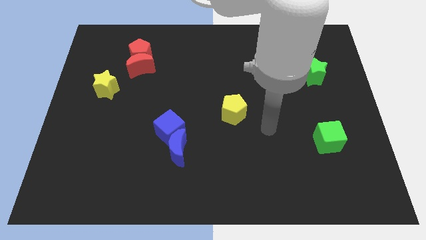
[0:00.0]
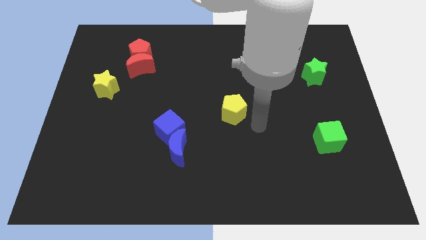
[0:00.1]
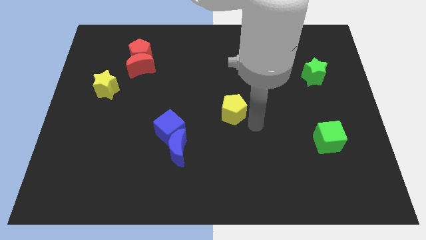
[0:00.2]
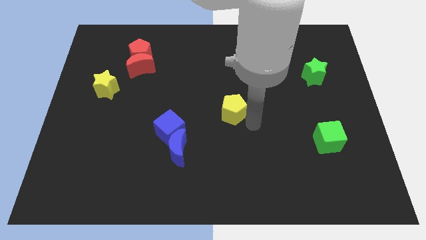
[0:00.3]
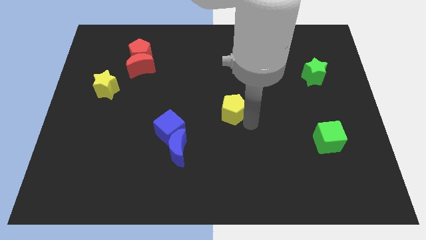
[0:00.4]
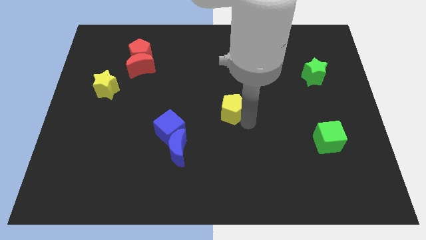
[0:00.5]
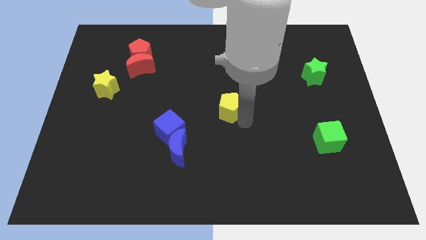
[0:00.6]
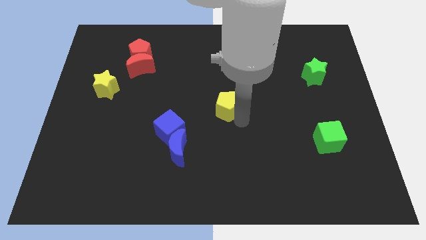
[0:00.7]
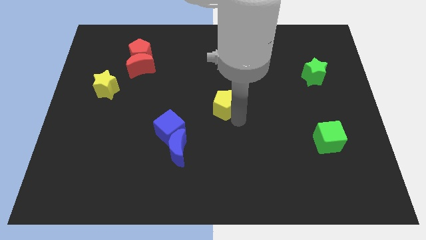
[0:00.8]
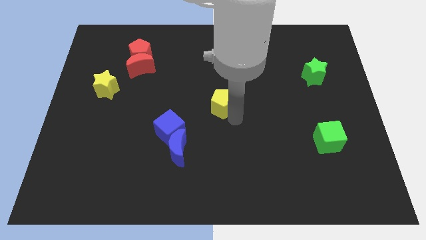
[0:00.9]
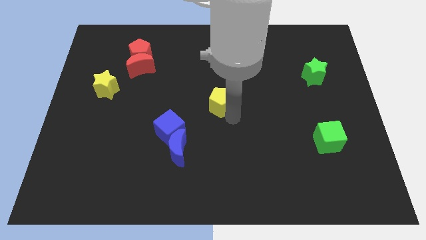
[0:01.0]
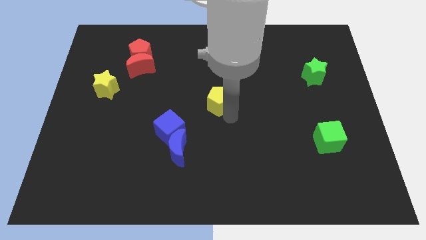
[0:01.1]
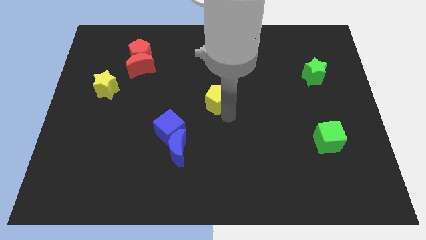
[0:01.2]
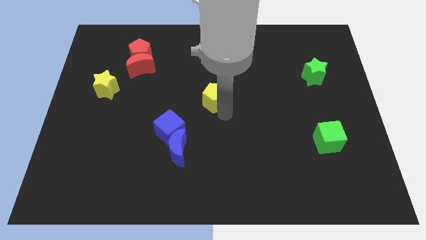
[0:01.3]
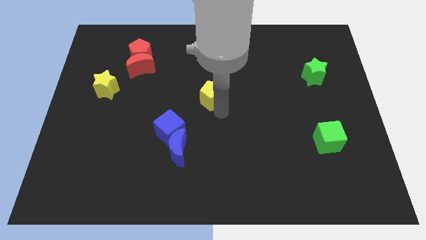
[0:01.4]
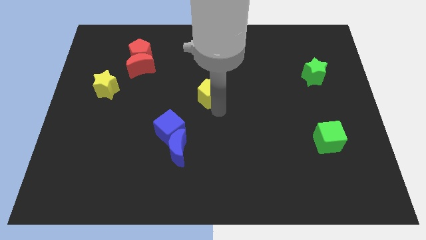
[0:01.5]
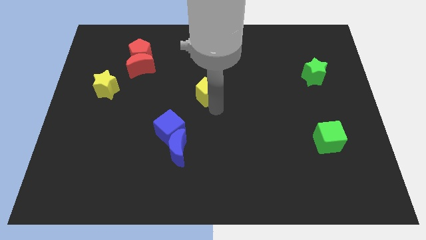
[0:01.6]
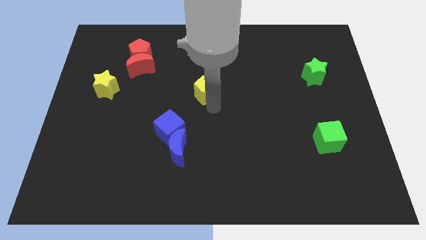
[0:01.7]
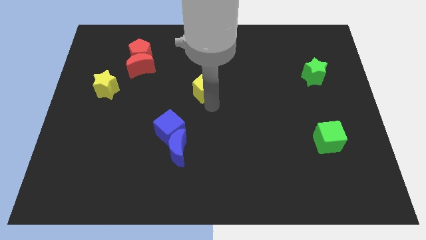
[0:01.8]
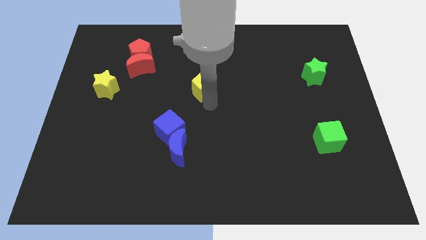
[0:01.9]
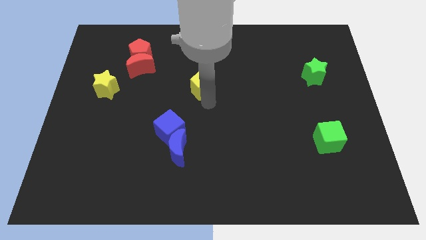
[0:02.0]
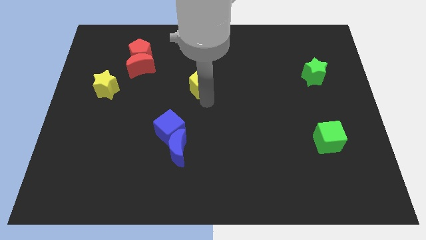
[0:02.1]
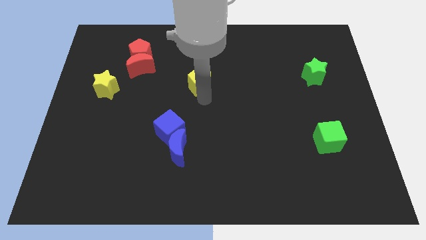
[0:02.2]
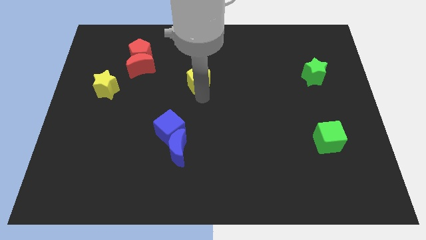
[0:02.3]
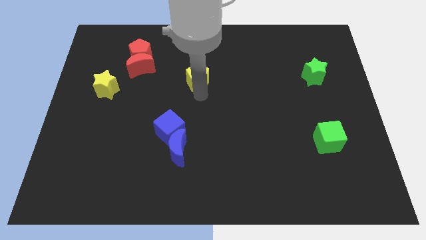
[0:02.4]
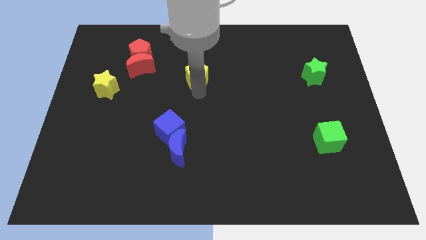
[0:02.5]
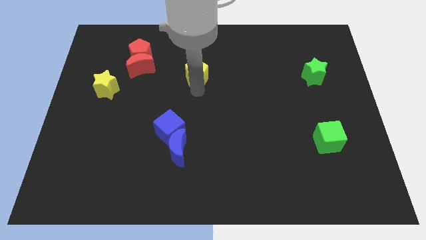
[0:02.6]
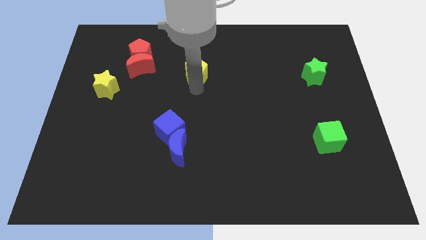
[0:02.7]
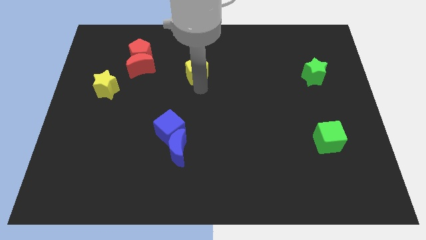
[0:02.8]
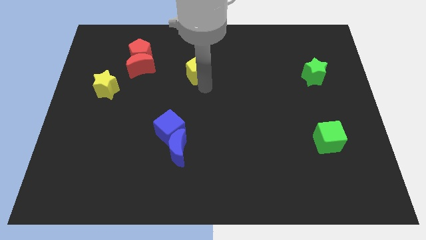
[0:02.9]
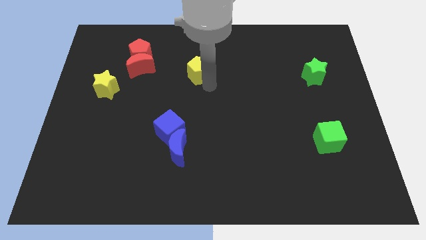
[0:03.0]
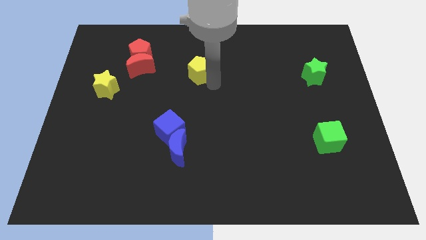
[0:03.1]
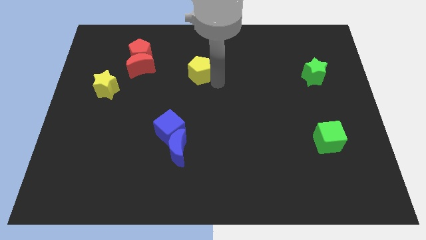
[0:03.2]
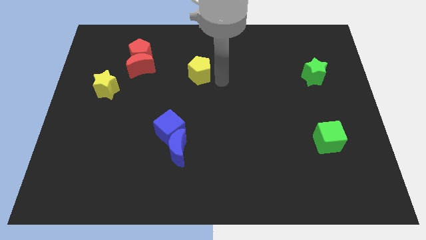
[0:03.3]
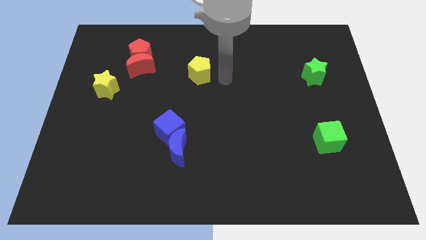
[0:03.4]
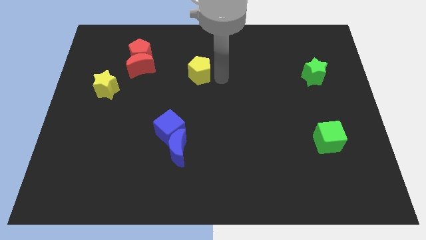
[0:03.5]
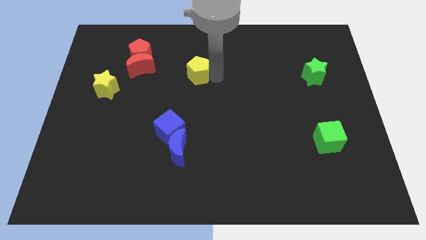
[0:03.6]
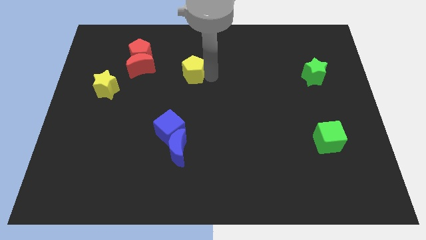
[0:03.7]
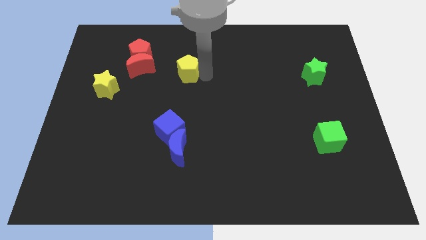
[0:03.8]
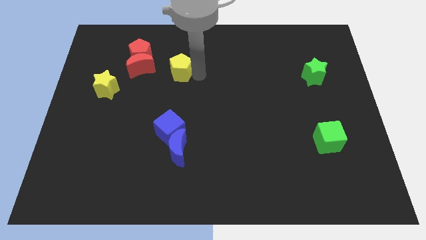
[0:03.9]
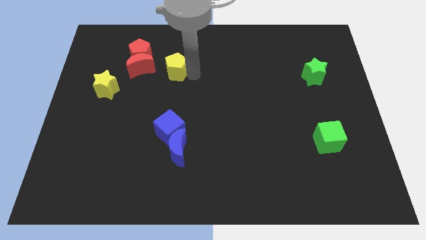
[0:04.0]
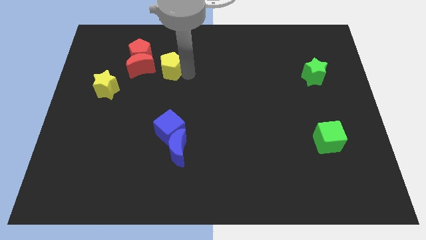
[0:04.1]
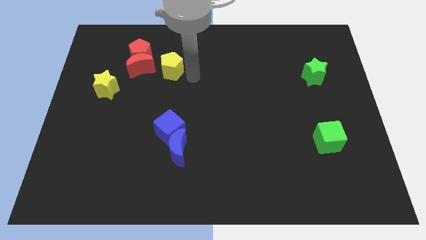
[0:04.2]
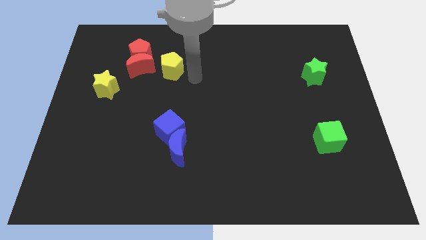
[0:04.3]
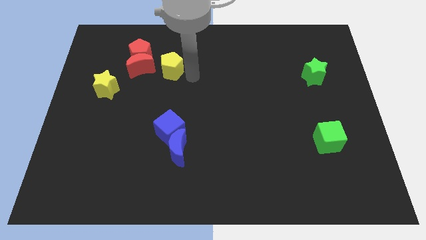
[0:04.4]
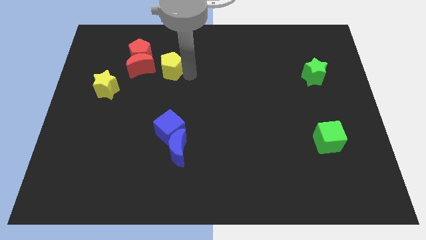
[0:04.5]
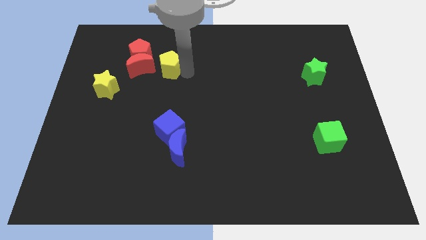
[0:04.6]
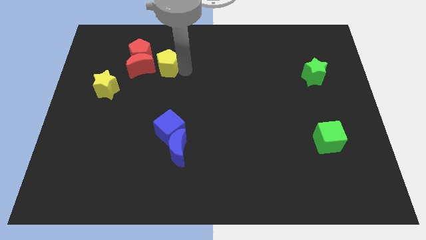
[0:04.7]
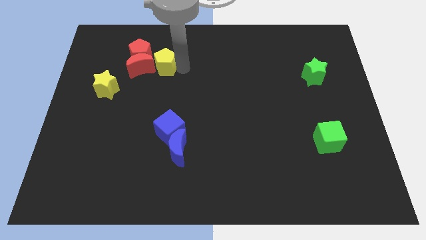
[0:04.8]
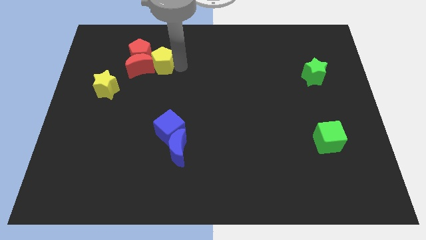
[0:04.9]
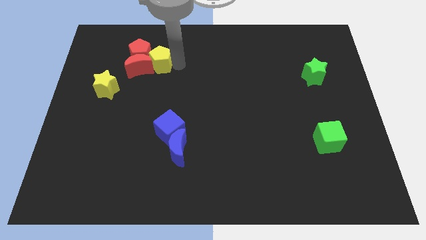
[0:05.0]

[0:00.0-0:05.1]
put the yellow pentagon close to the red pentagon

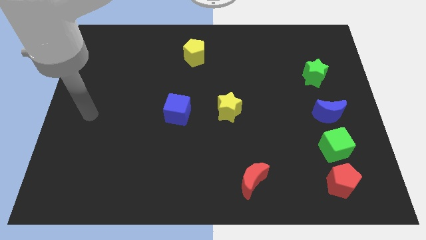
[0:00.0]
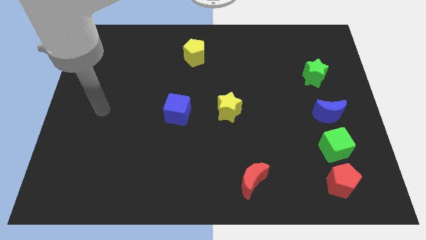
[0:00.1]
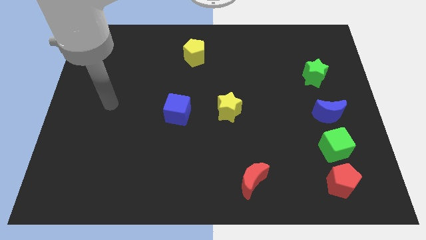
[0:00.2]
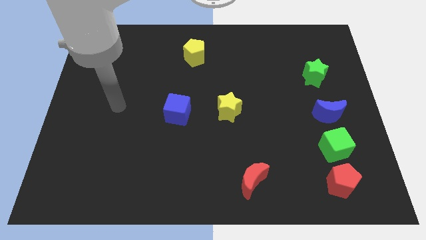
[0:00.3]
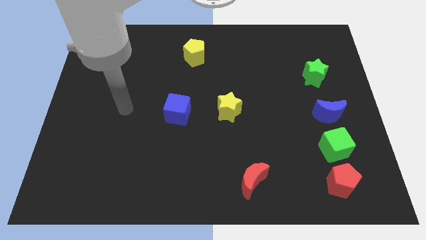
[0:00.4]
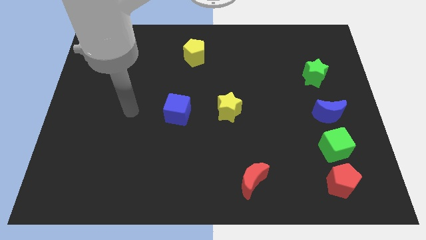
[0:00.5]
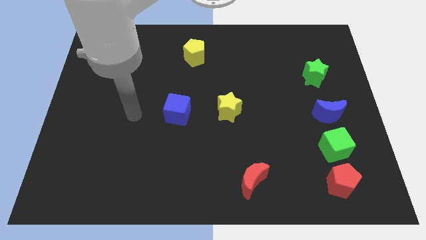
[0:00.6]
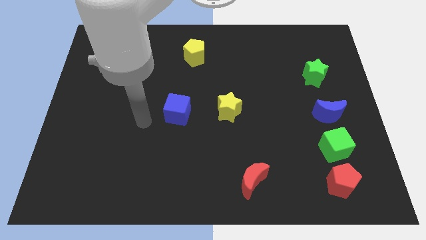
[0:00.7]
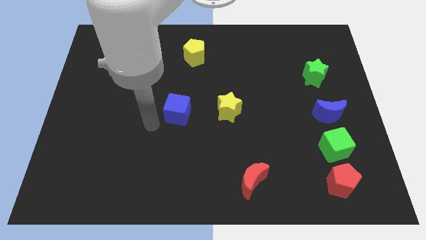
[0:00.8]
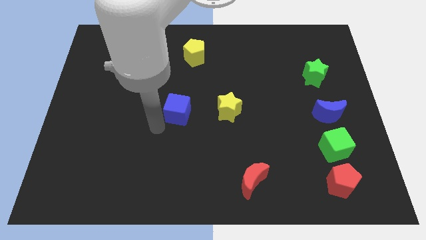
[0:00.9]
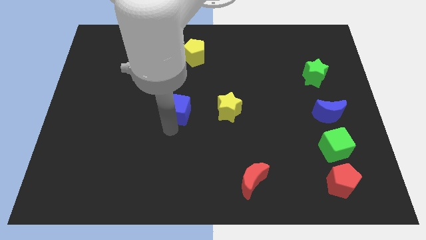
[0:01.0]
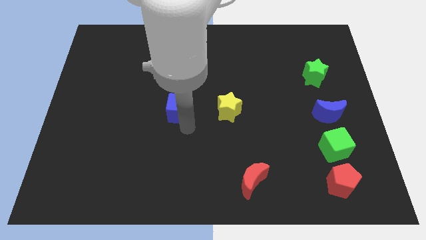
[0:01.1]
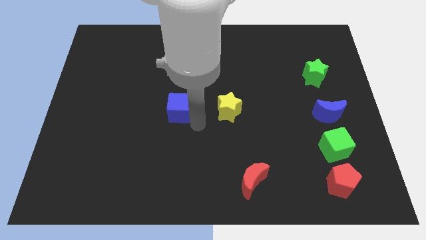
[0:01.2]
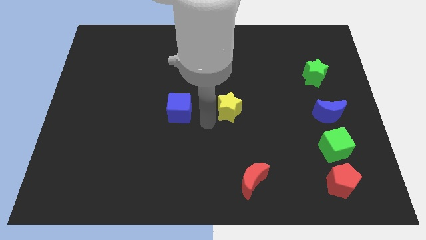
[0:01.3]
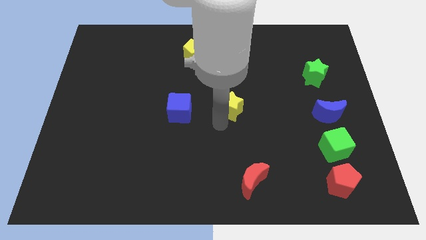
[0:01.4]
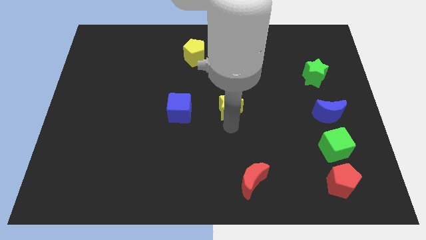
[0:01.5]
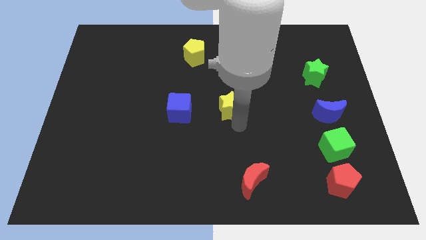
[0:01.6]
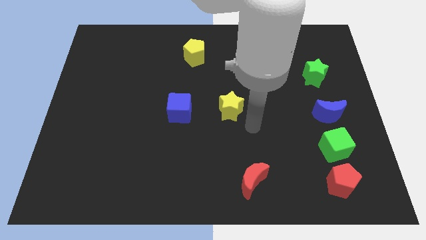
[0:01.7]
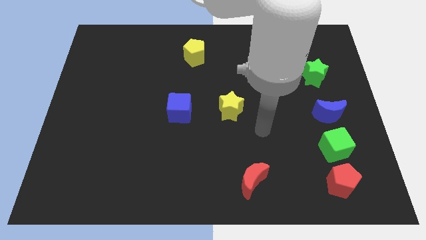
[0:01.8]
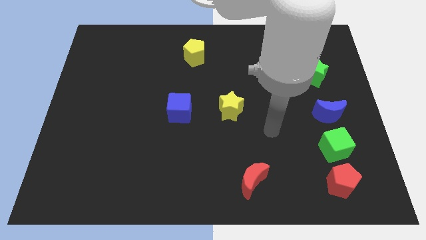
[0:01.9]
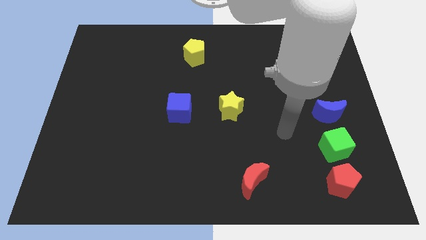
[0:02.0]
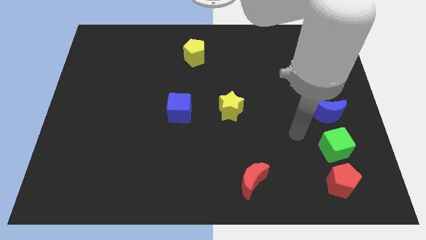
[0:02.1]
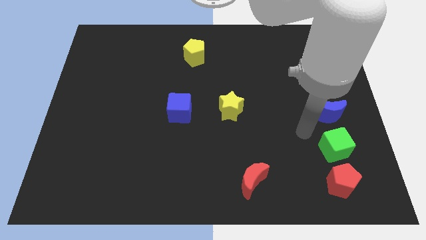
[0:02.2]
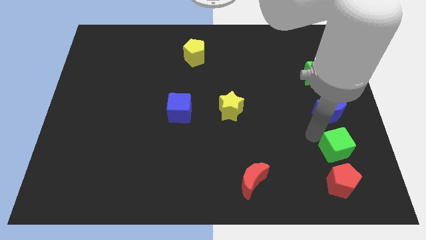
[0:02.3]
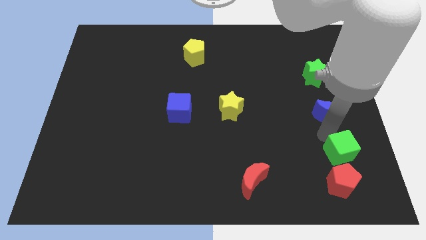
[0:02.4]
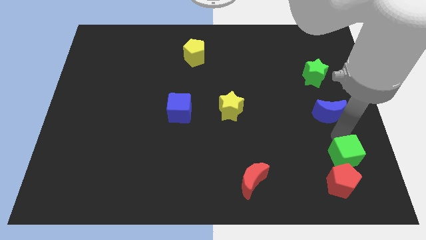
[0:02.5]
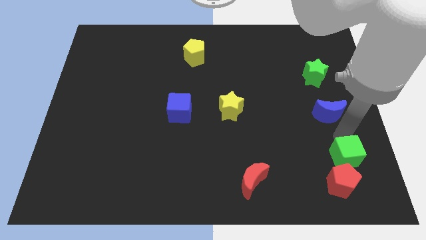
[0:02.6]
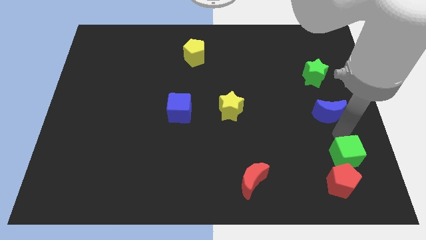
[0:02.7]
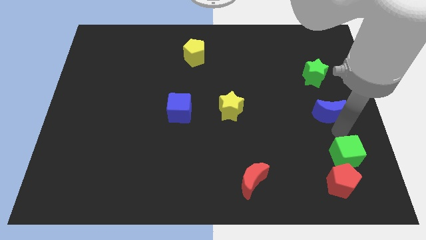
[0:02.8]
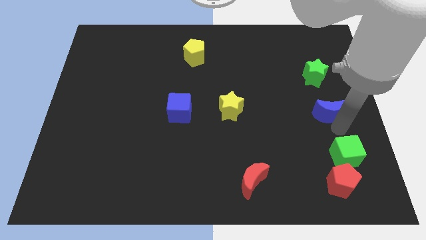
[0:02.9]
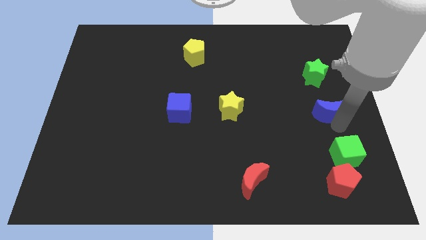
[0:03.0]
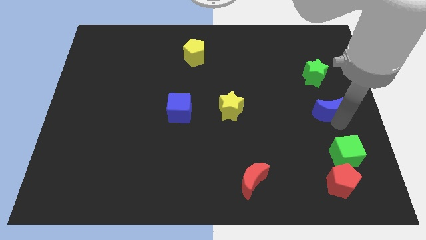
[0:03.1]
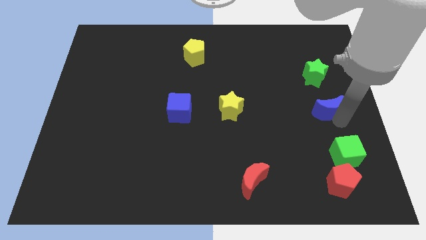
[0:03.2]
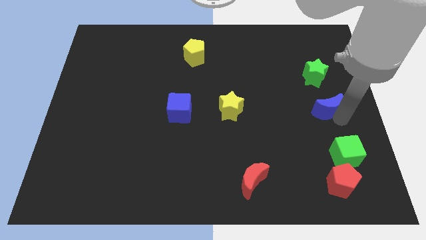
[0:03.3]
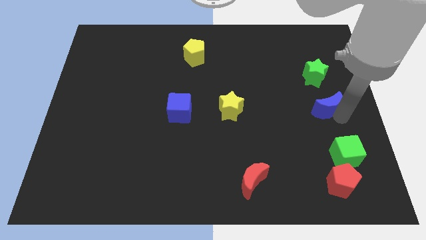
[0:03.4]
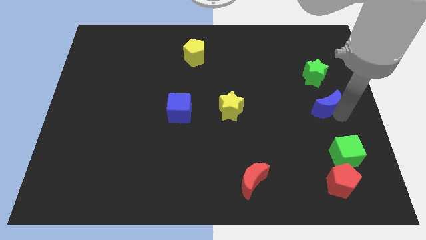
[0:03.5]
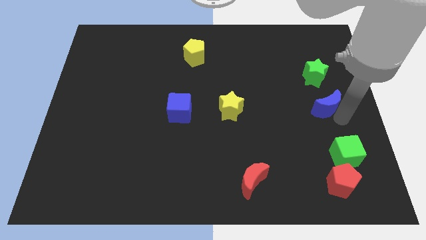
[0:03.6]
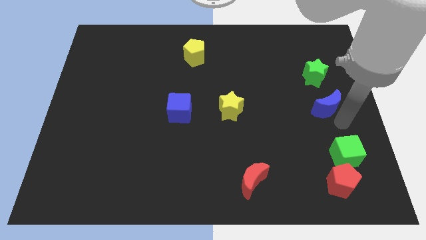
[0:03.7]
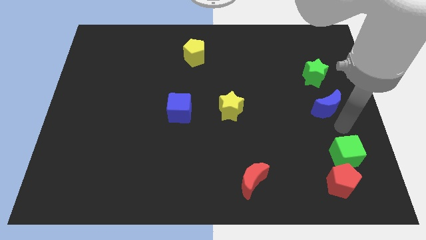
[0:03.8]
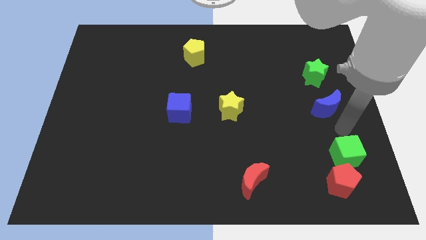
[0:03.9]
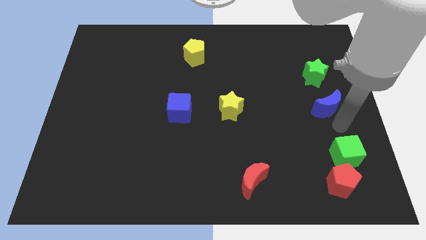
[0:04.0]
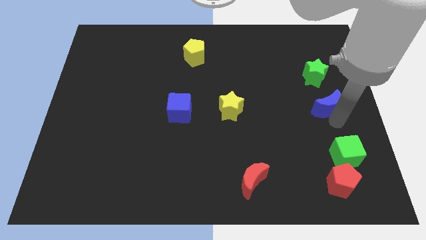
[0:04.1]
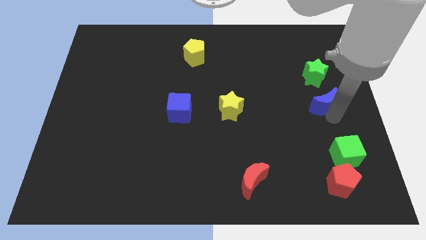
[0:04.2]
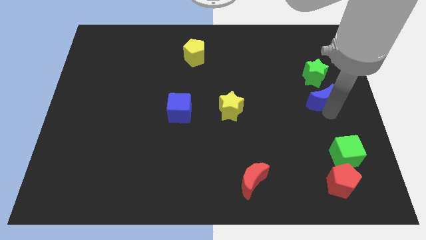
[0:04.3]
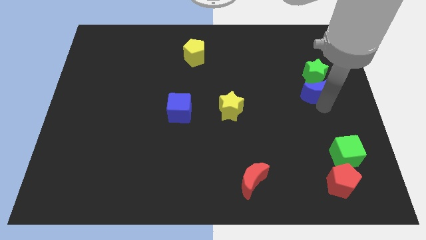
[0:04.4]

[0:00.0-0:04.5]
move the blue moon next to the green star
